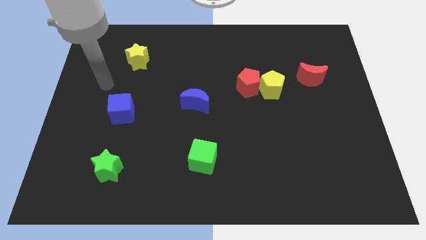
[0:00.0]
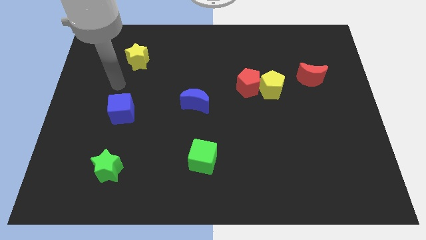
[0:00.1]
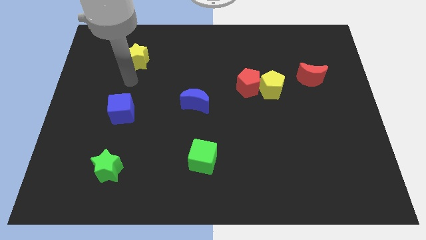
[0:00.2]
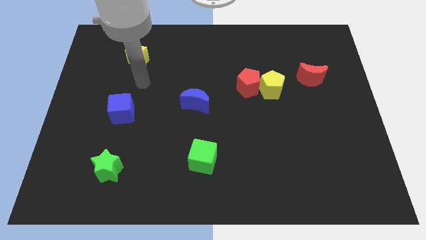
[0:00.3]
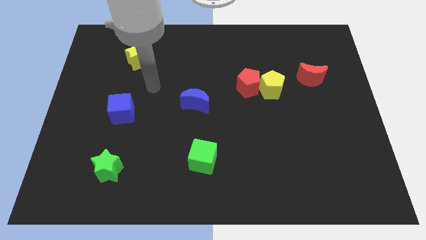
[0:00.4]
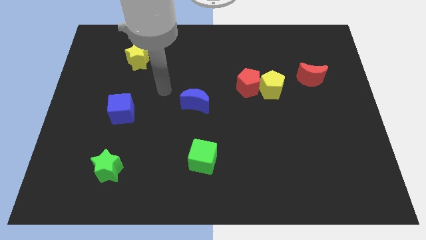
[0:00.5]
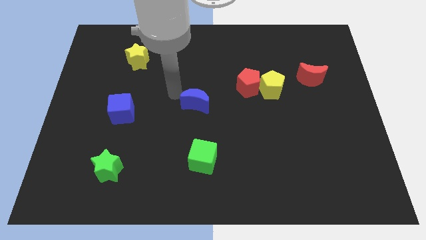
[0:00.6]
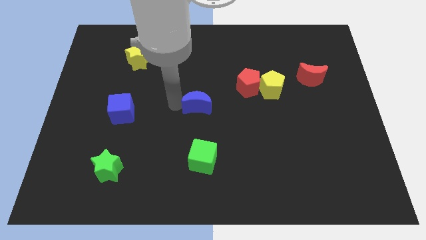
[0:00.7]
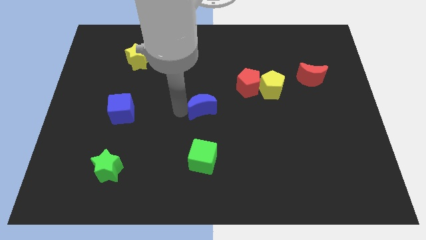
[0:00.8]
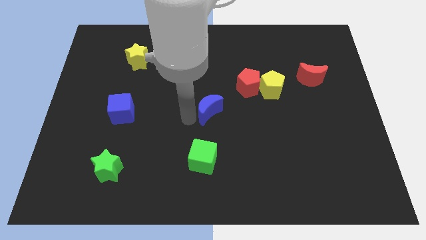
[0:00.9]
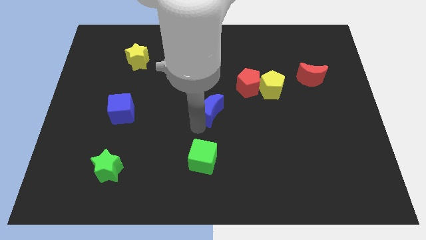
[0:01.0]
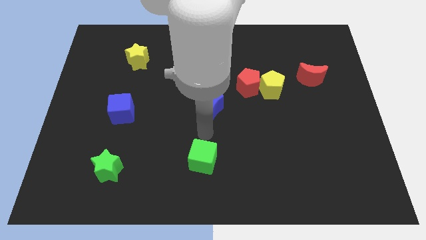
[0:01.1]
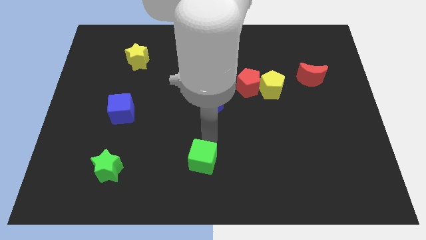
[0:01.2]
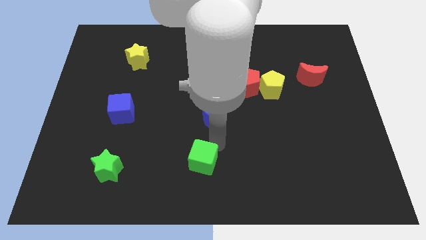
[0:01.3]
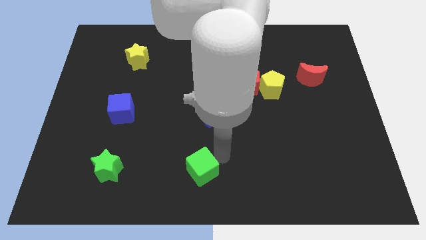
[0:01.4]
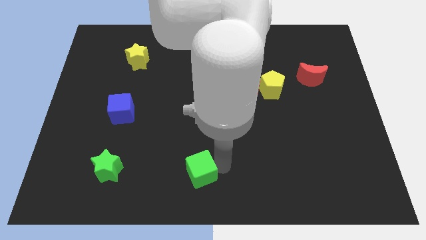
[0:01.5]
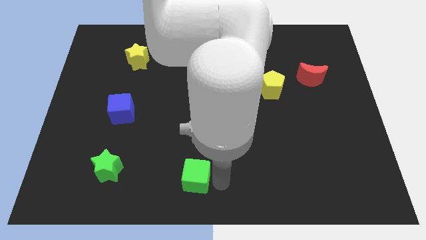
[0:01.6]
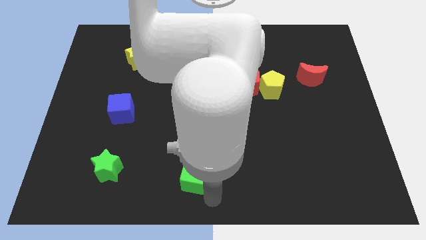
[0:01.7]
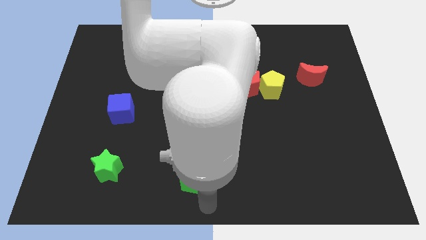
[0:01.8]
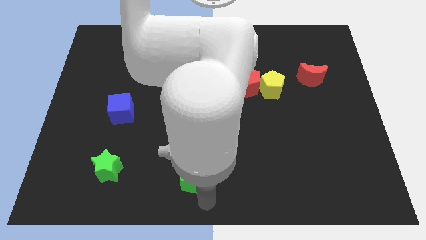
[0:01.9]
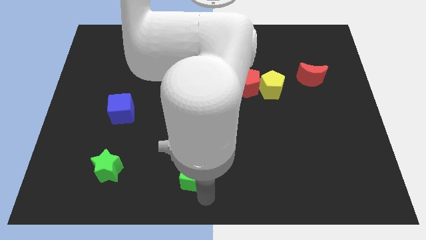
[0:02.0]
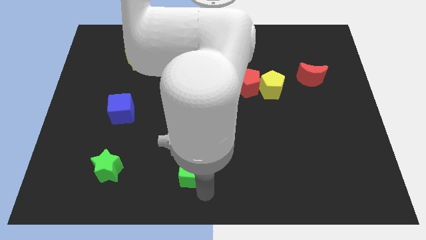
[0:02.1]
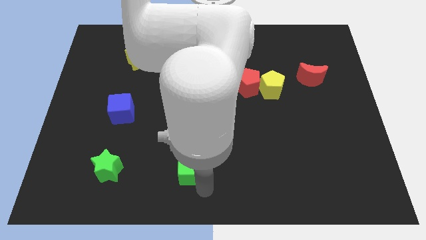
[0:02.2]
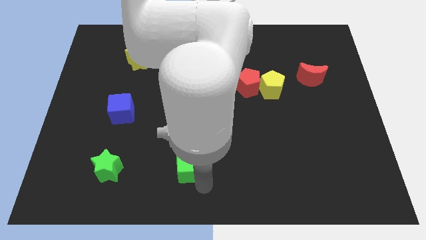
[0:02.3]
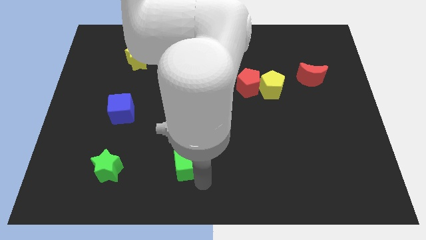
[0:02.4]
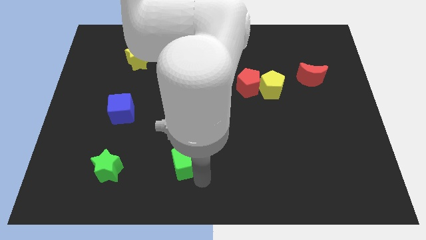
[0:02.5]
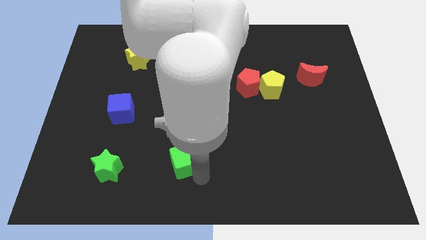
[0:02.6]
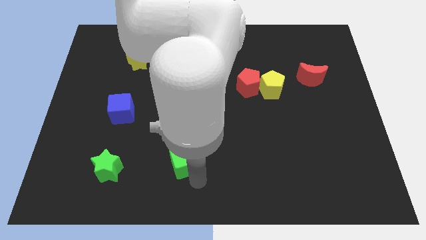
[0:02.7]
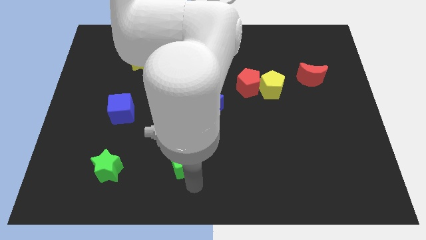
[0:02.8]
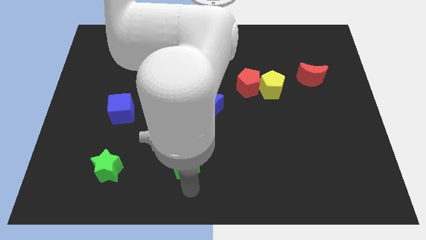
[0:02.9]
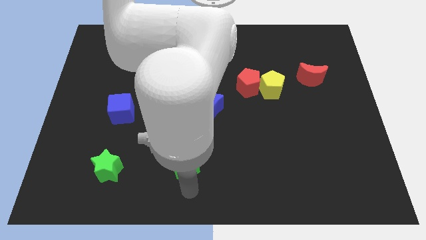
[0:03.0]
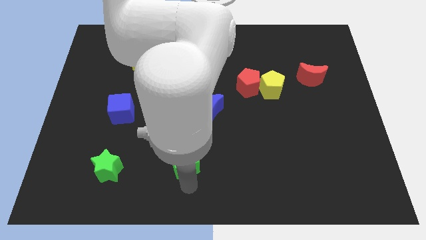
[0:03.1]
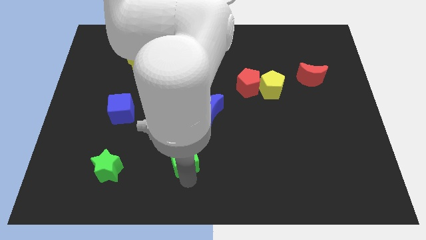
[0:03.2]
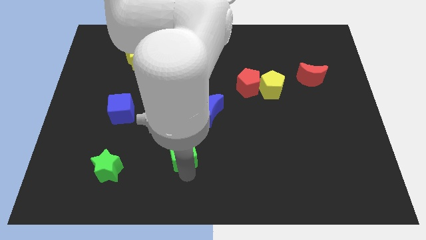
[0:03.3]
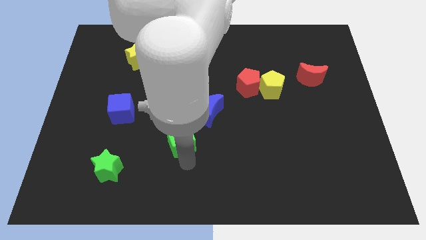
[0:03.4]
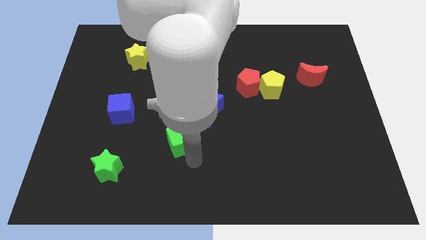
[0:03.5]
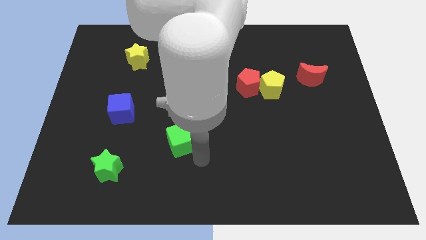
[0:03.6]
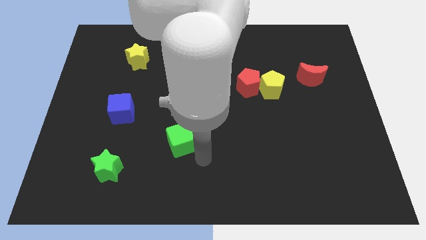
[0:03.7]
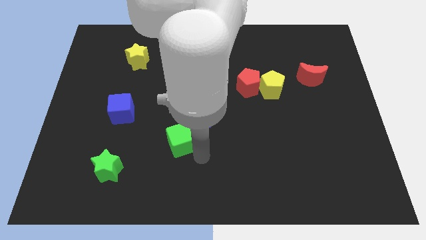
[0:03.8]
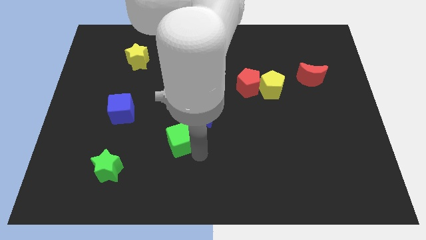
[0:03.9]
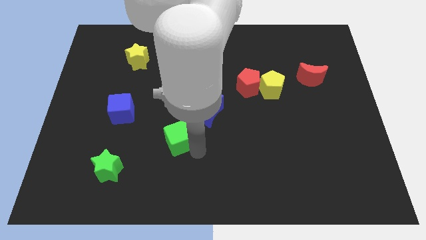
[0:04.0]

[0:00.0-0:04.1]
slide the green cube diagonally up and to the left a little bit

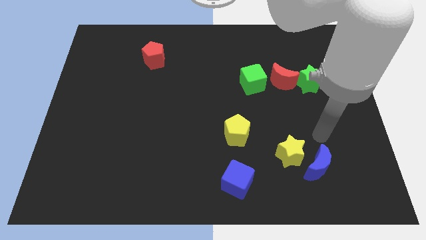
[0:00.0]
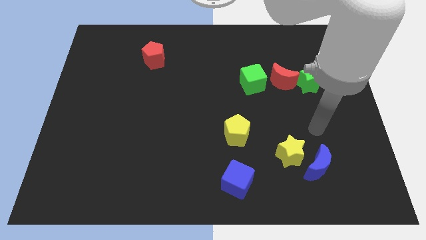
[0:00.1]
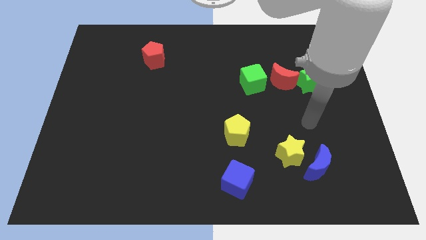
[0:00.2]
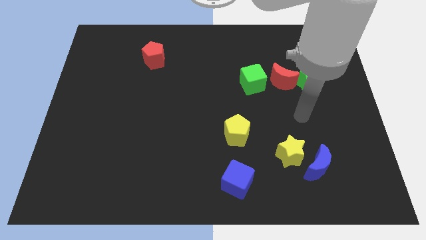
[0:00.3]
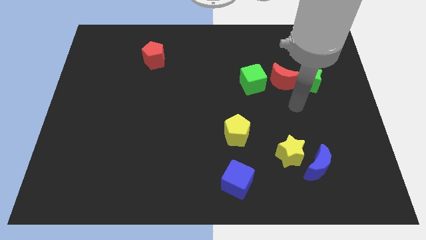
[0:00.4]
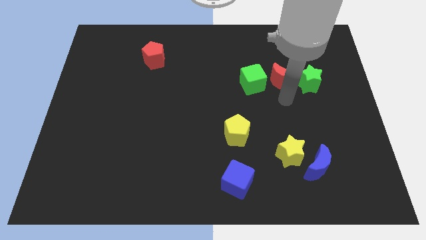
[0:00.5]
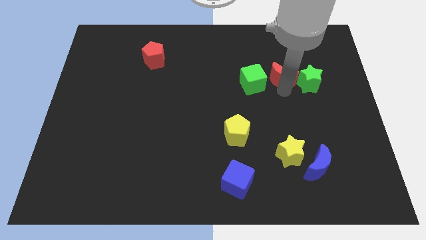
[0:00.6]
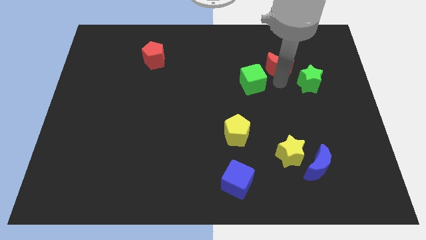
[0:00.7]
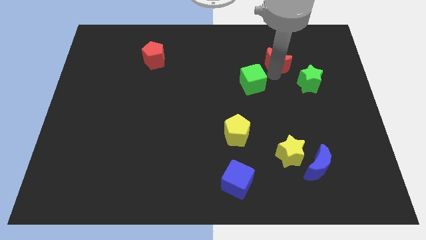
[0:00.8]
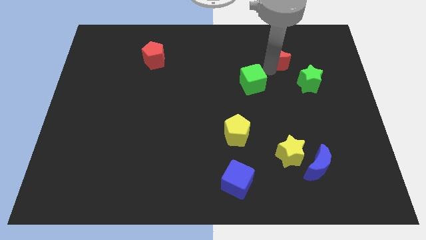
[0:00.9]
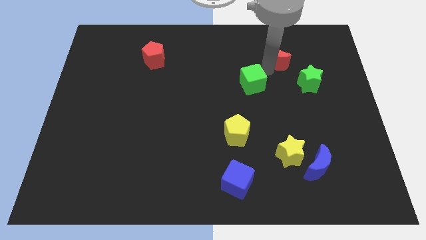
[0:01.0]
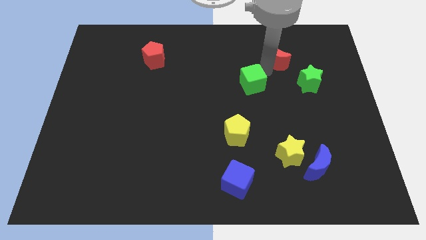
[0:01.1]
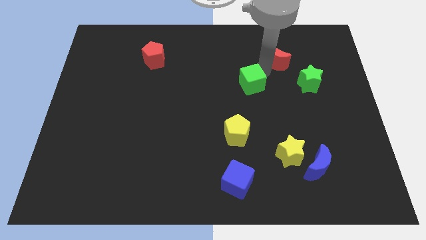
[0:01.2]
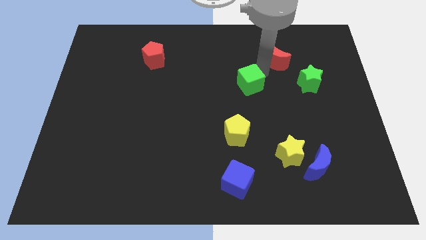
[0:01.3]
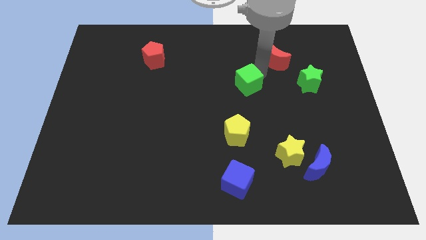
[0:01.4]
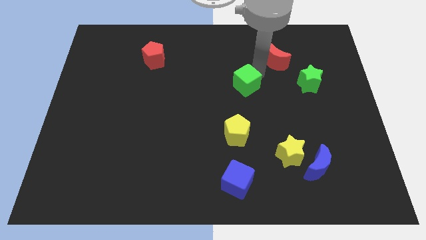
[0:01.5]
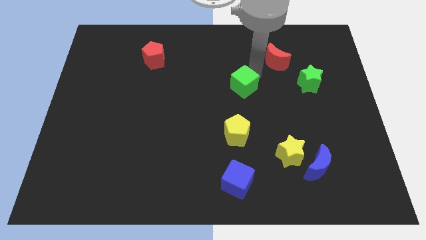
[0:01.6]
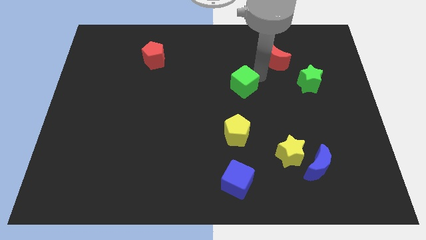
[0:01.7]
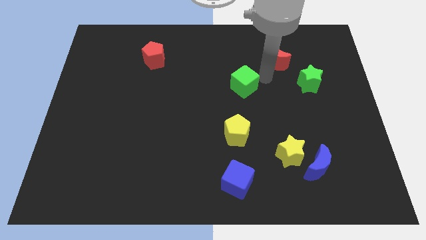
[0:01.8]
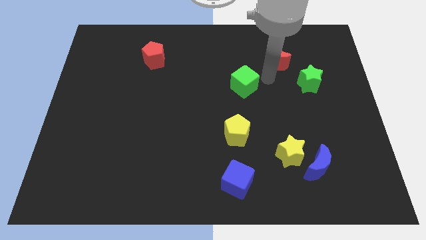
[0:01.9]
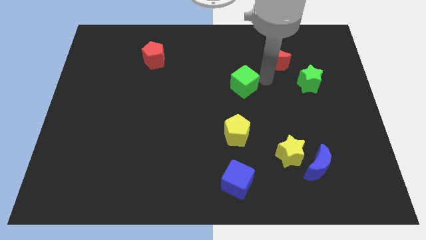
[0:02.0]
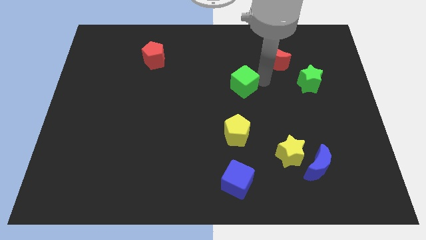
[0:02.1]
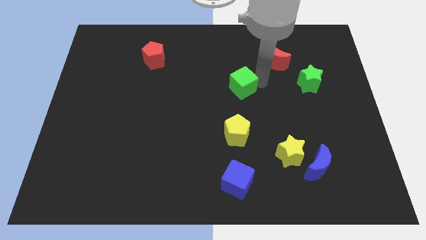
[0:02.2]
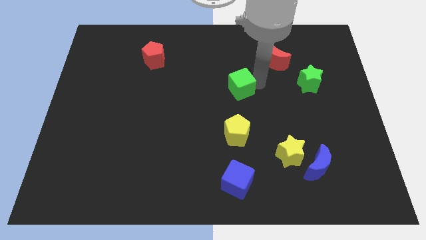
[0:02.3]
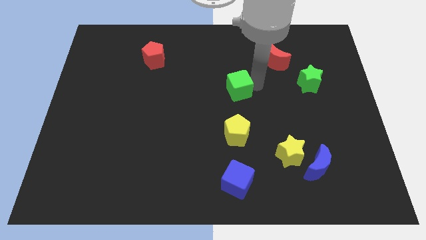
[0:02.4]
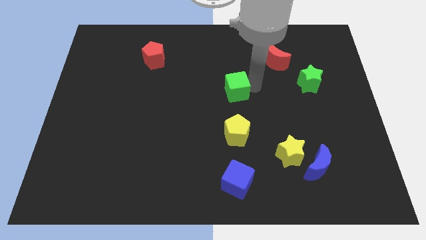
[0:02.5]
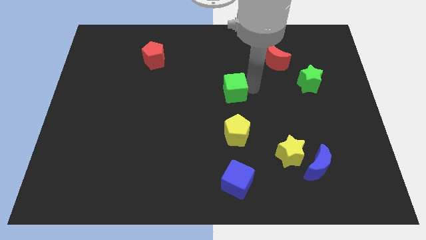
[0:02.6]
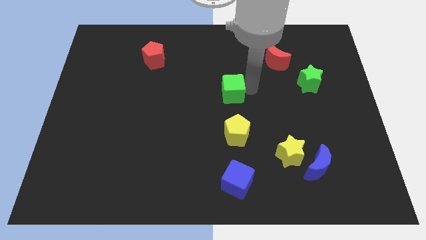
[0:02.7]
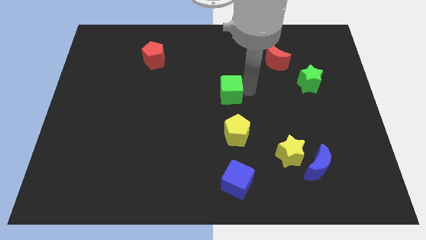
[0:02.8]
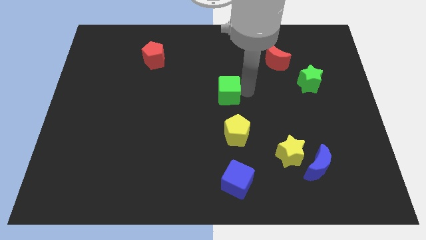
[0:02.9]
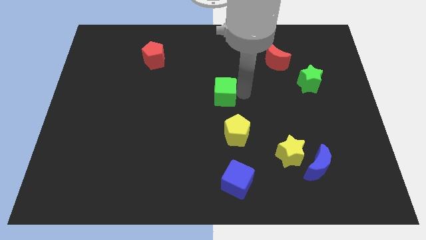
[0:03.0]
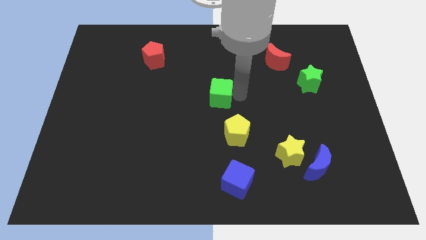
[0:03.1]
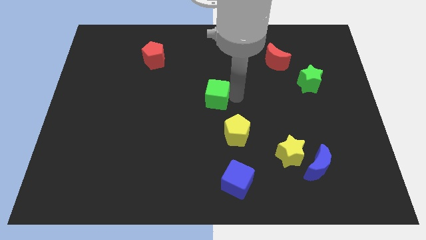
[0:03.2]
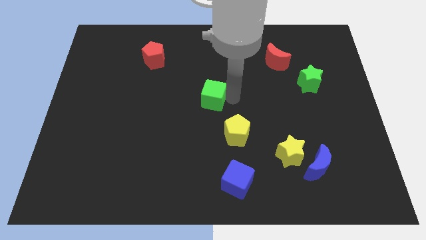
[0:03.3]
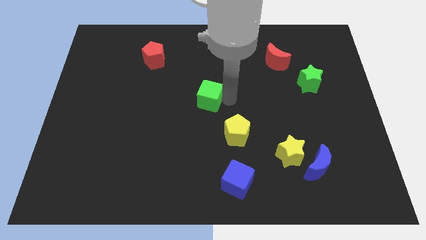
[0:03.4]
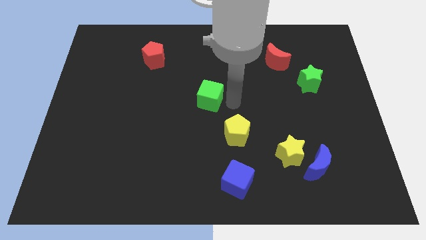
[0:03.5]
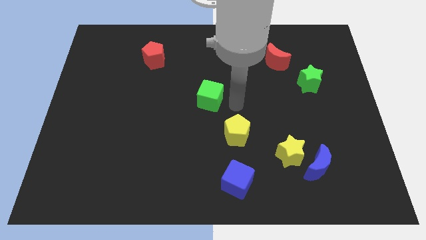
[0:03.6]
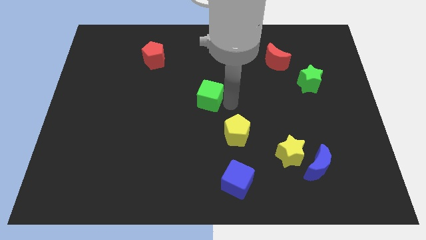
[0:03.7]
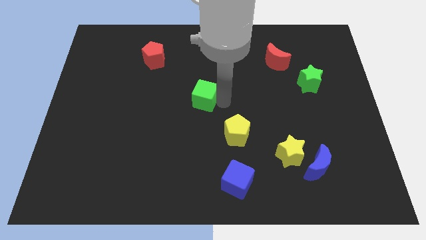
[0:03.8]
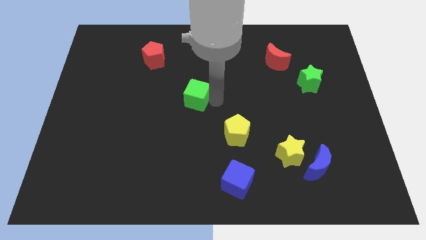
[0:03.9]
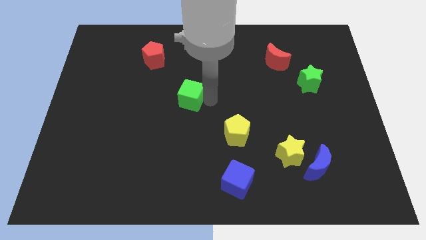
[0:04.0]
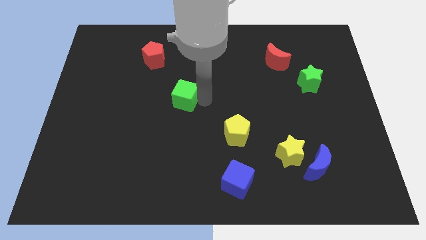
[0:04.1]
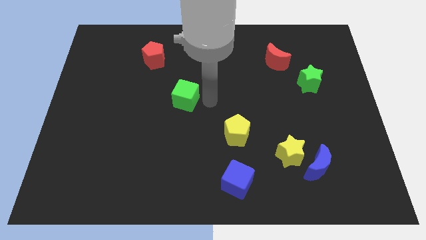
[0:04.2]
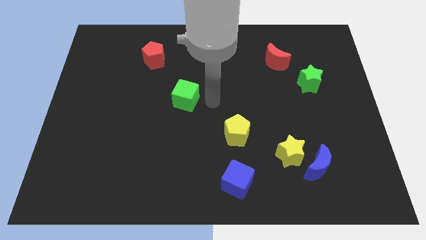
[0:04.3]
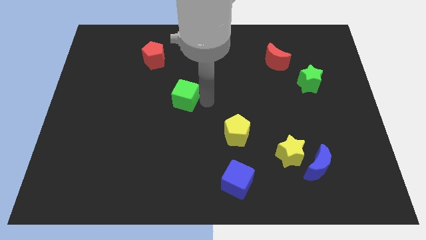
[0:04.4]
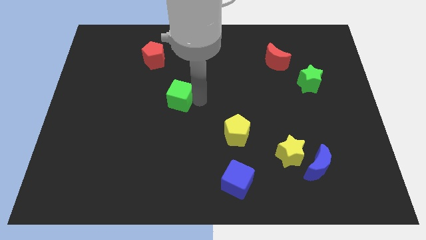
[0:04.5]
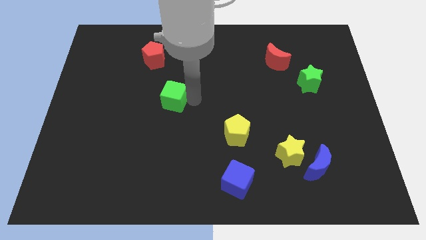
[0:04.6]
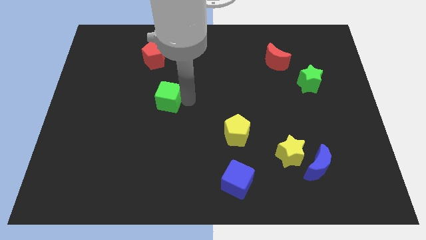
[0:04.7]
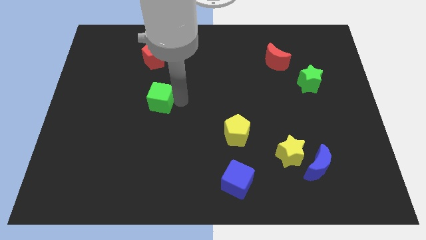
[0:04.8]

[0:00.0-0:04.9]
push the green cube left
